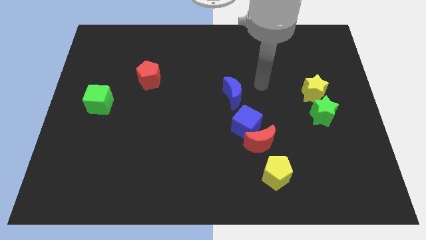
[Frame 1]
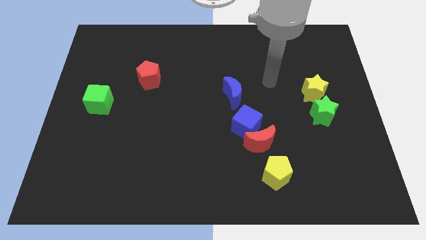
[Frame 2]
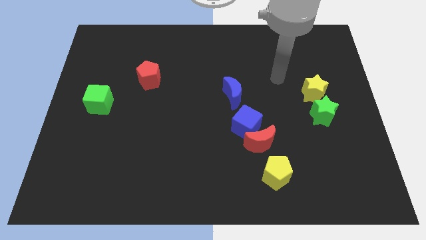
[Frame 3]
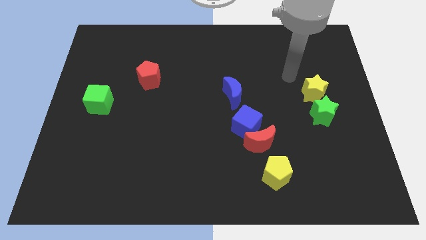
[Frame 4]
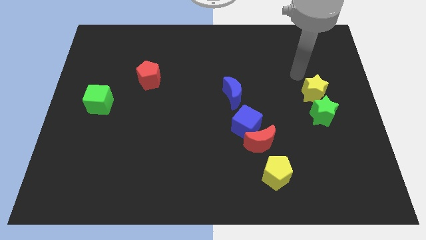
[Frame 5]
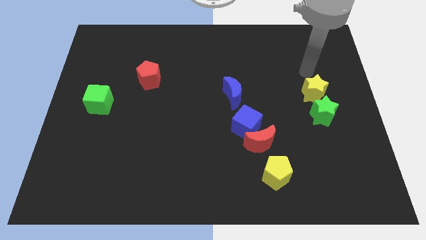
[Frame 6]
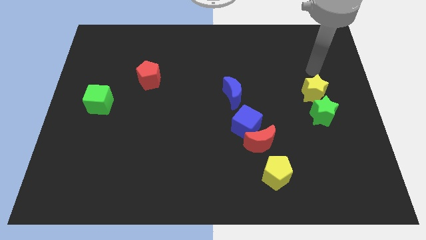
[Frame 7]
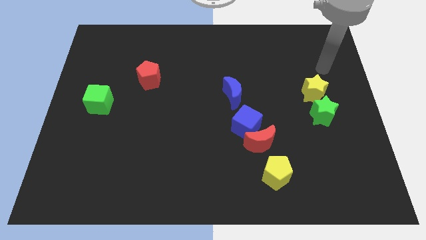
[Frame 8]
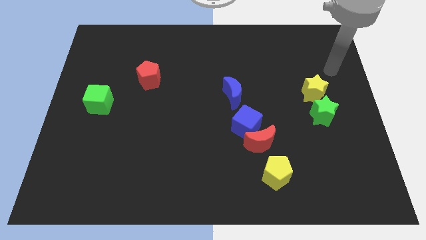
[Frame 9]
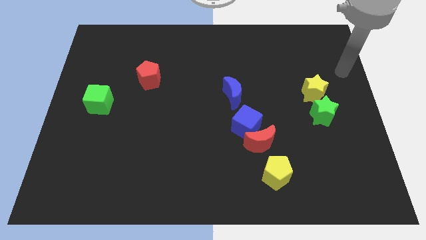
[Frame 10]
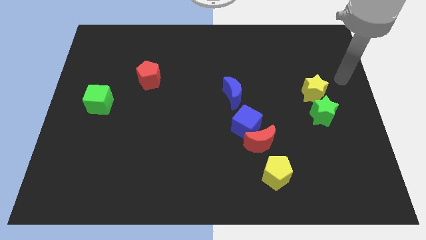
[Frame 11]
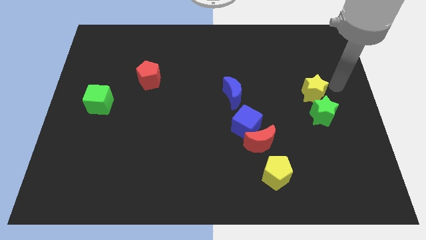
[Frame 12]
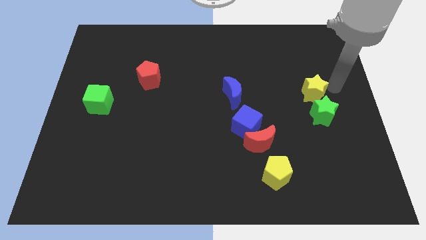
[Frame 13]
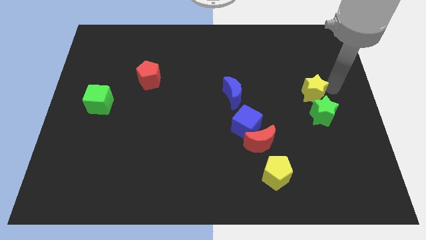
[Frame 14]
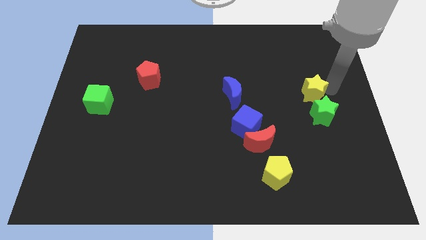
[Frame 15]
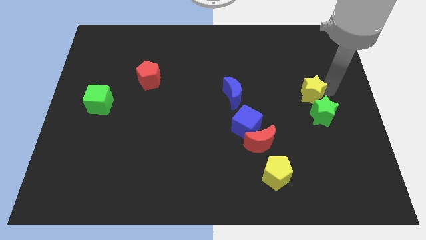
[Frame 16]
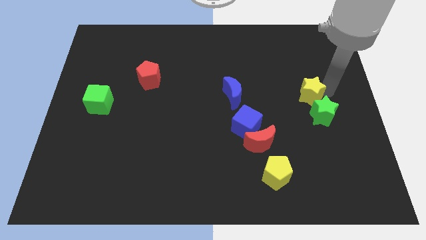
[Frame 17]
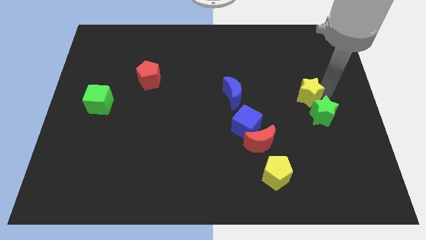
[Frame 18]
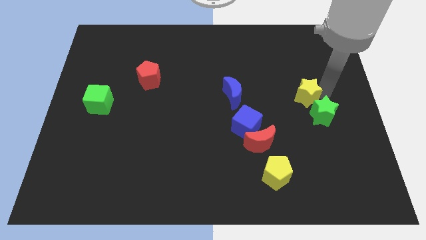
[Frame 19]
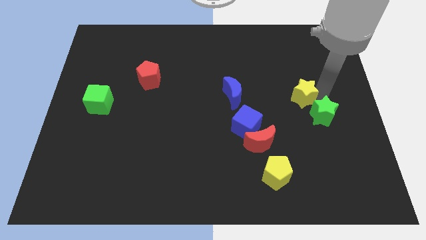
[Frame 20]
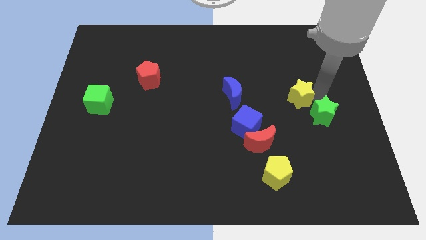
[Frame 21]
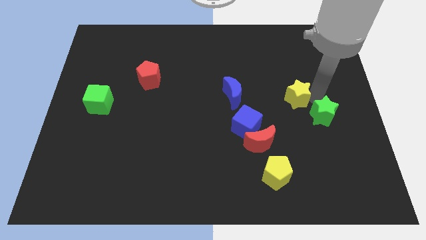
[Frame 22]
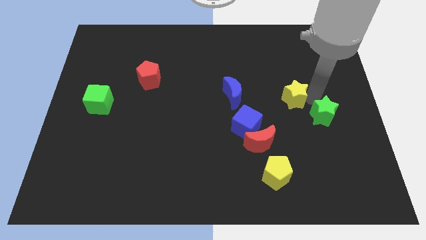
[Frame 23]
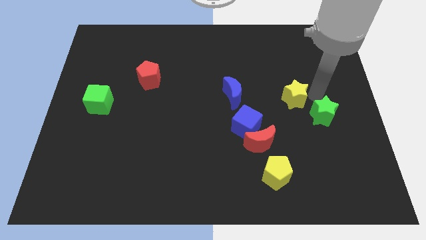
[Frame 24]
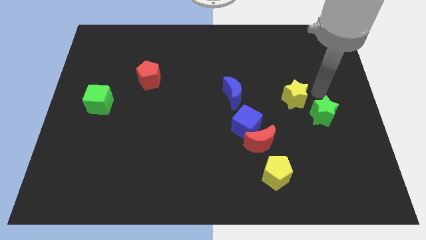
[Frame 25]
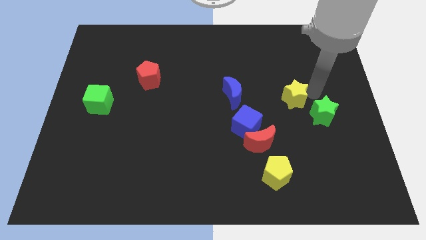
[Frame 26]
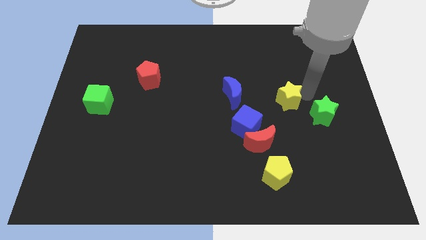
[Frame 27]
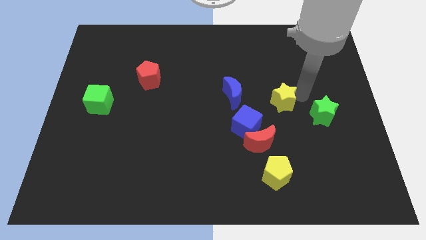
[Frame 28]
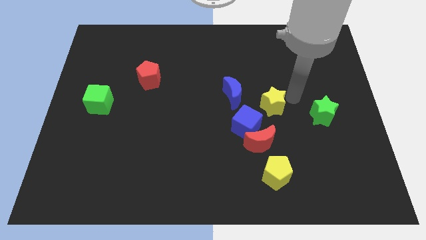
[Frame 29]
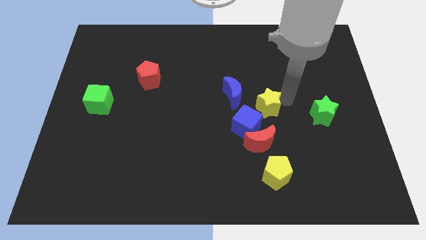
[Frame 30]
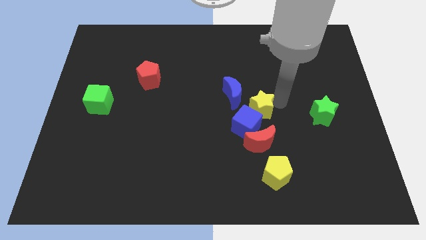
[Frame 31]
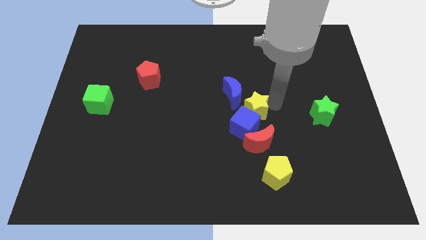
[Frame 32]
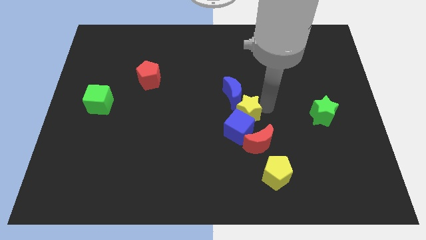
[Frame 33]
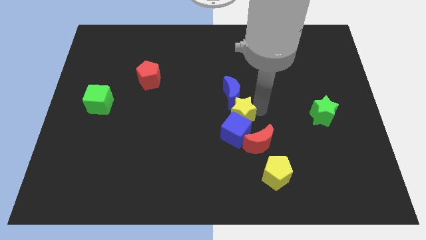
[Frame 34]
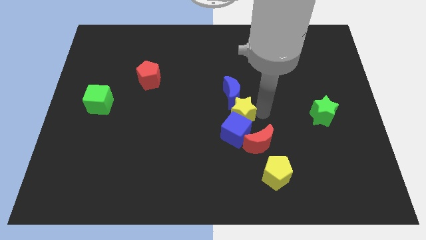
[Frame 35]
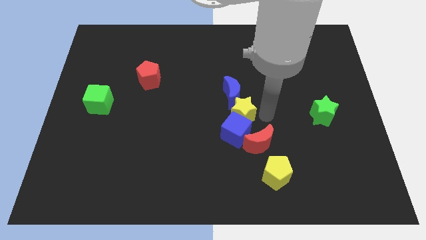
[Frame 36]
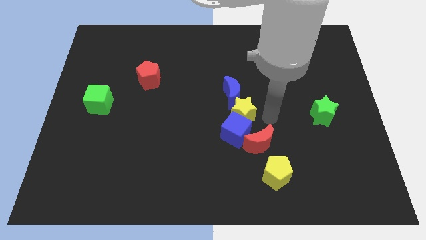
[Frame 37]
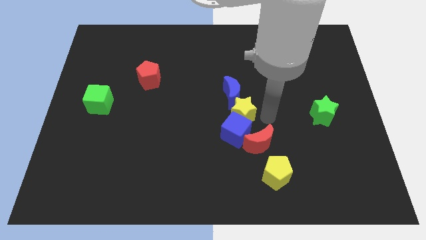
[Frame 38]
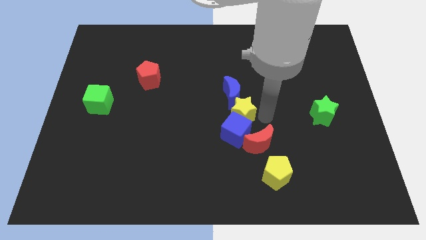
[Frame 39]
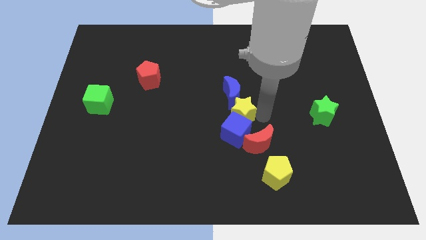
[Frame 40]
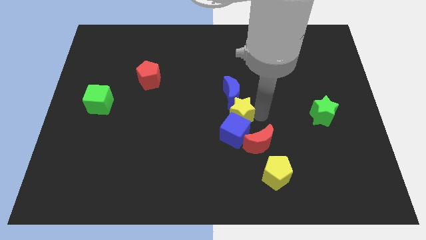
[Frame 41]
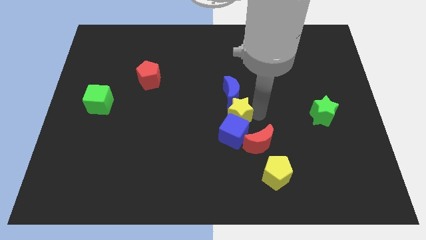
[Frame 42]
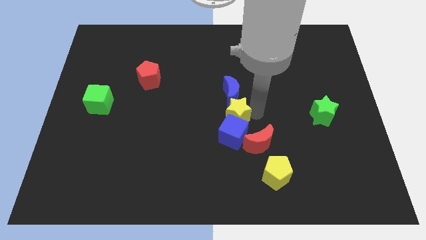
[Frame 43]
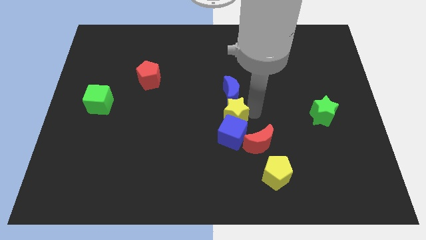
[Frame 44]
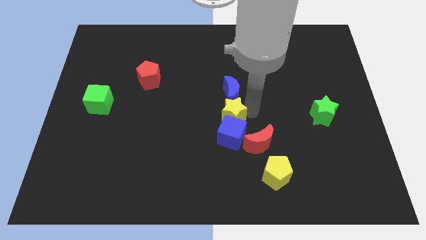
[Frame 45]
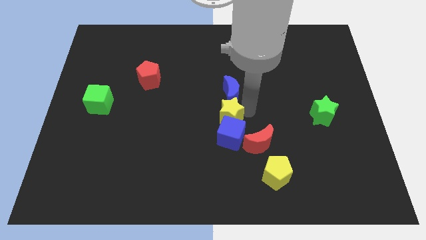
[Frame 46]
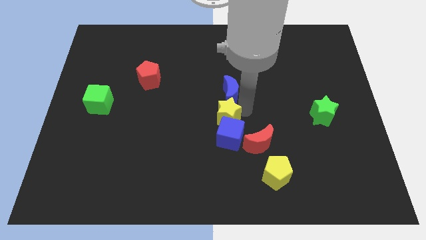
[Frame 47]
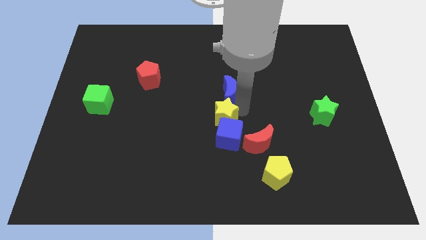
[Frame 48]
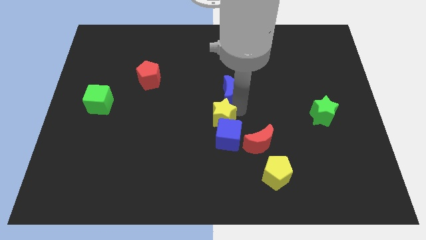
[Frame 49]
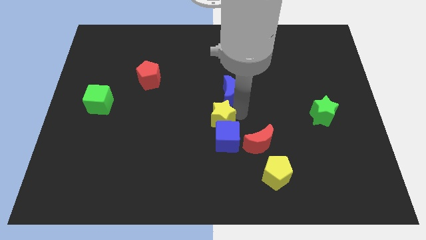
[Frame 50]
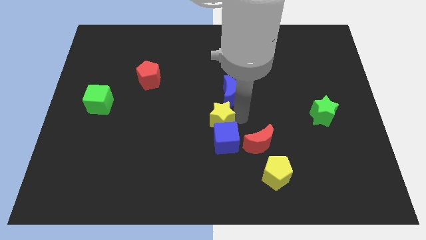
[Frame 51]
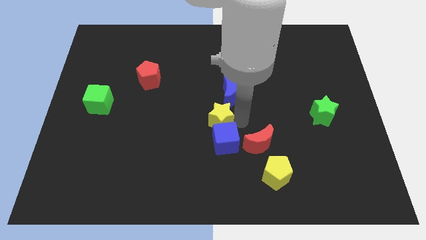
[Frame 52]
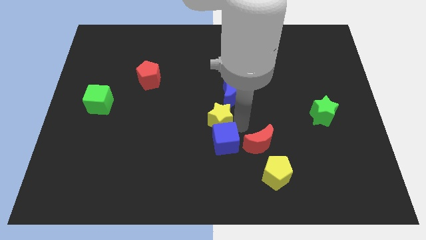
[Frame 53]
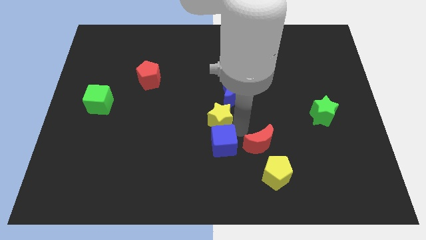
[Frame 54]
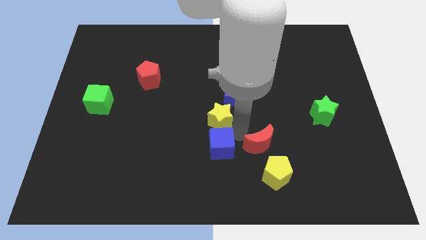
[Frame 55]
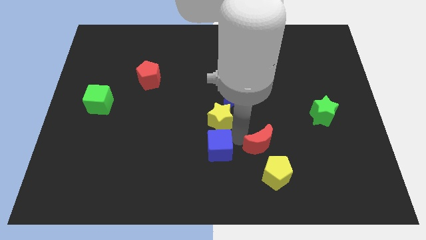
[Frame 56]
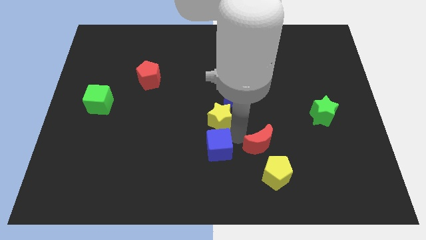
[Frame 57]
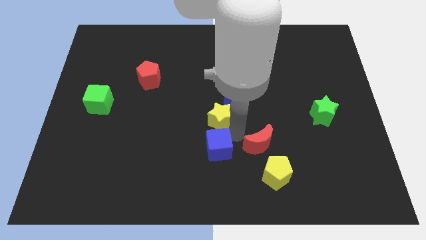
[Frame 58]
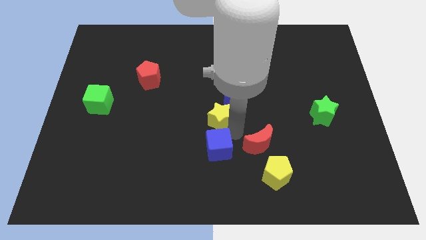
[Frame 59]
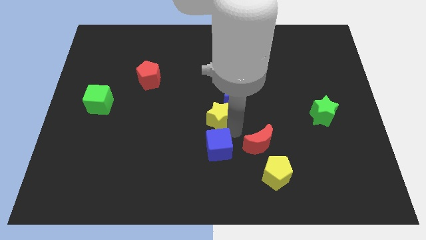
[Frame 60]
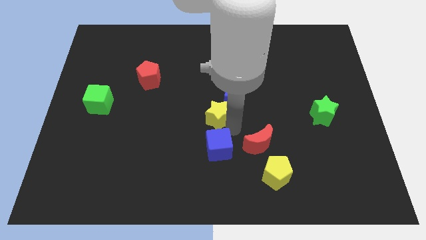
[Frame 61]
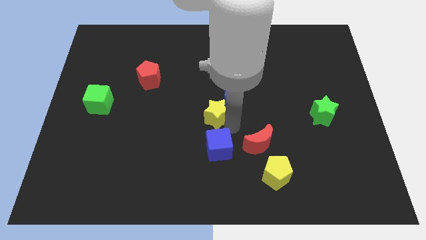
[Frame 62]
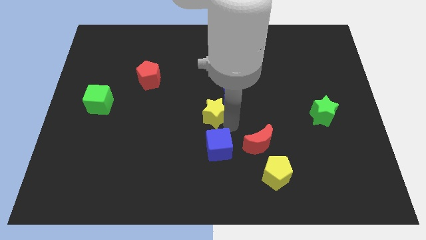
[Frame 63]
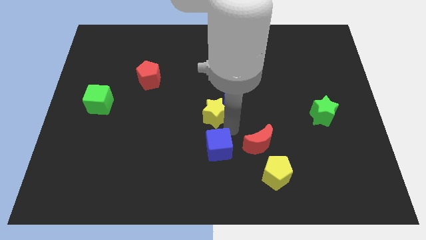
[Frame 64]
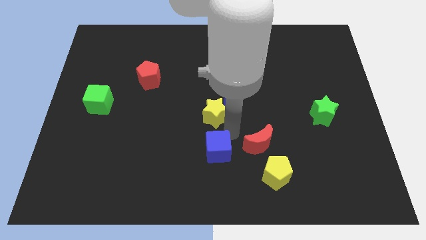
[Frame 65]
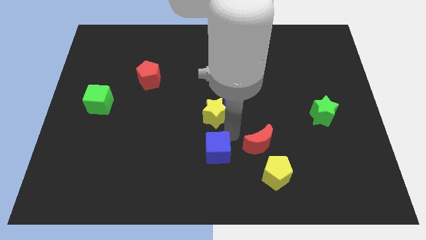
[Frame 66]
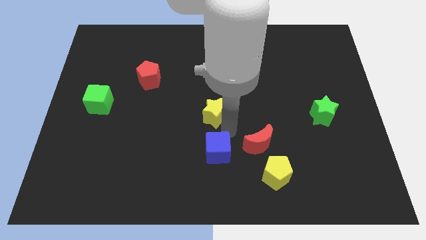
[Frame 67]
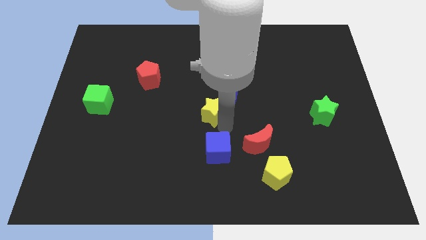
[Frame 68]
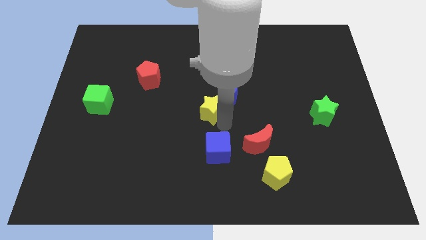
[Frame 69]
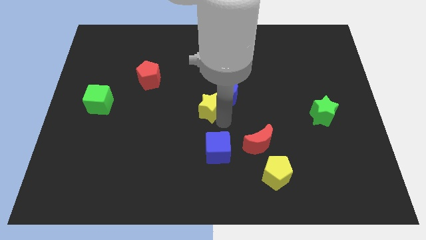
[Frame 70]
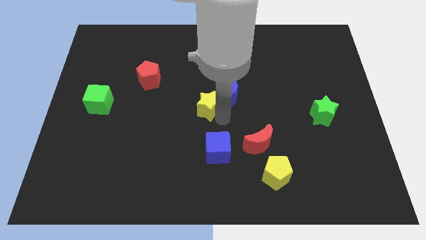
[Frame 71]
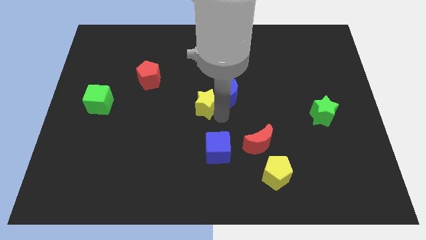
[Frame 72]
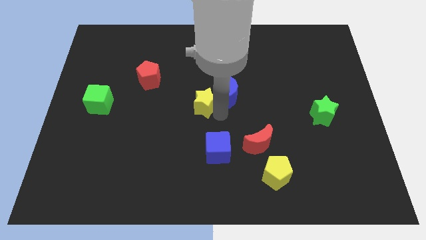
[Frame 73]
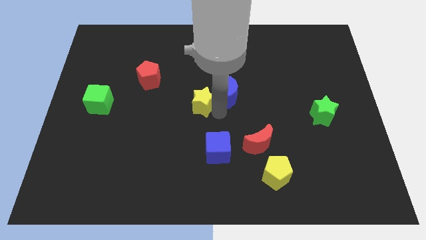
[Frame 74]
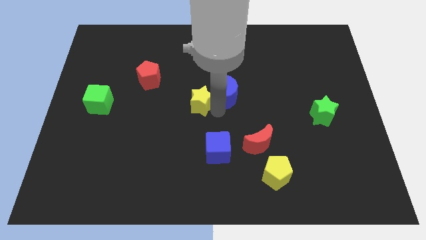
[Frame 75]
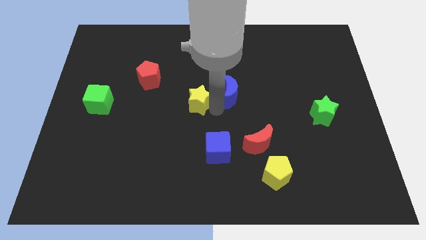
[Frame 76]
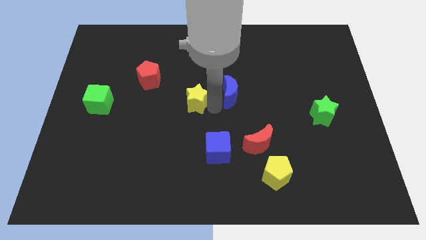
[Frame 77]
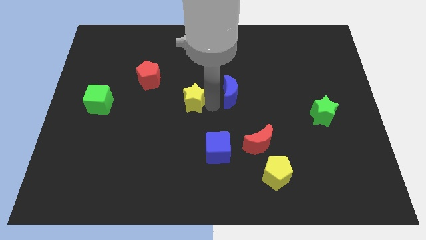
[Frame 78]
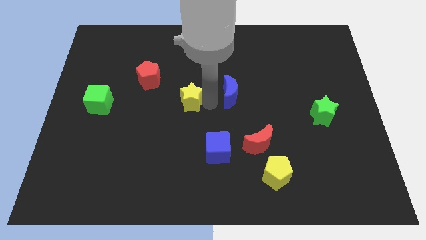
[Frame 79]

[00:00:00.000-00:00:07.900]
slide the yellow star to the bottom right side of the red pentagon
